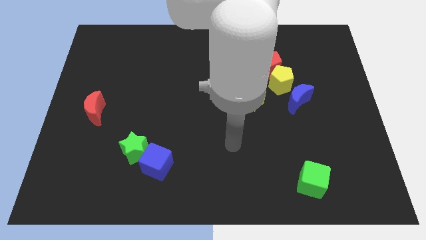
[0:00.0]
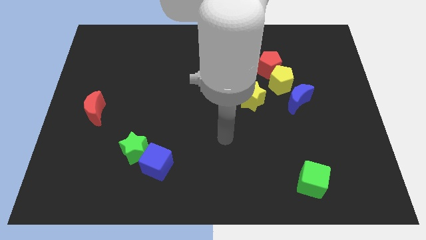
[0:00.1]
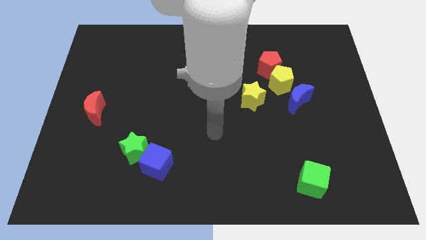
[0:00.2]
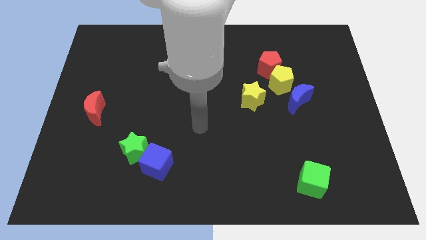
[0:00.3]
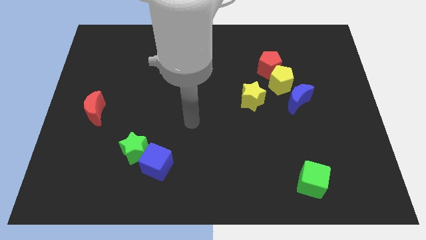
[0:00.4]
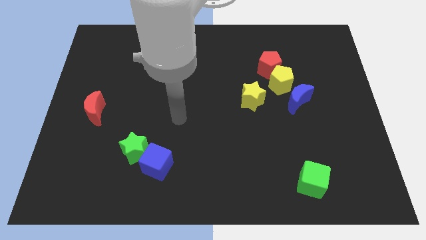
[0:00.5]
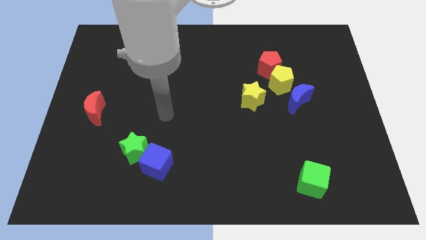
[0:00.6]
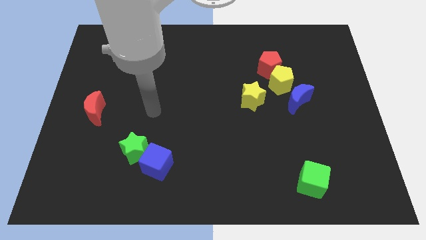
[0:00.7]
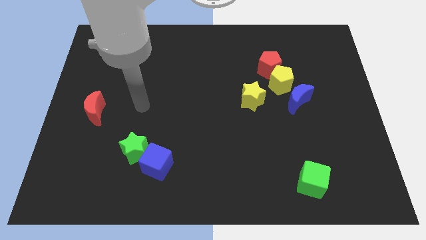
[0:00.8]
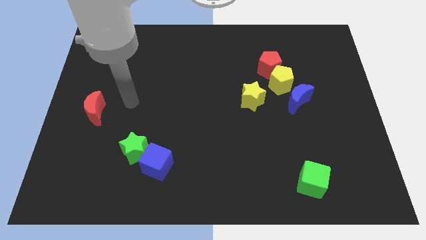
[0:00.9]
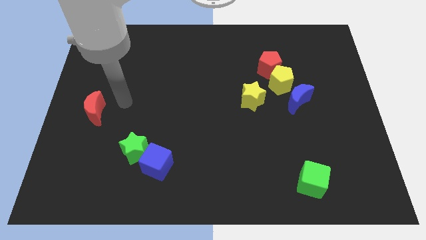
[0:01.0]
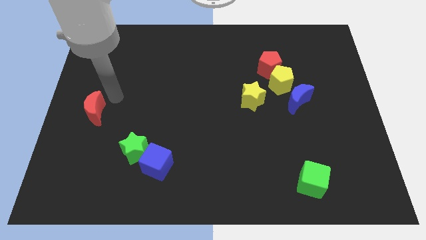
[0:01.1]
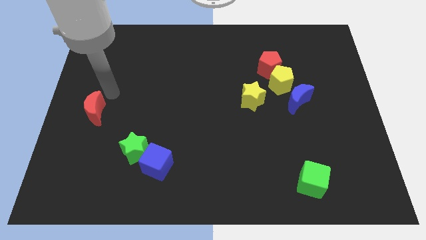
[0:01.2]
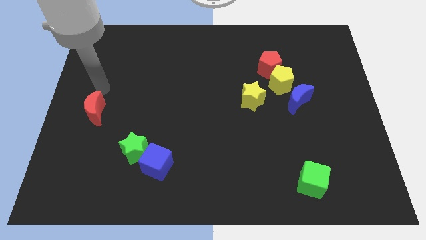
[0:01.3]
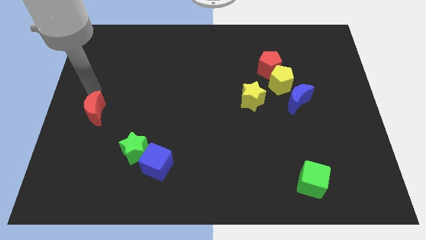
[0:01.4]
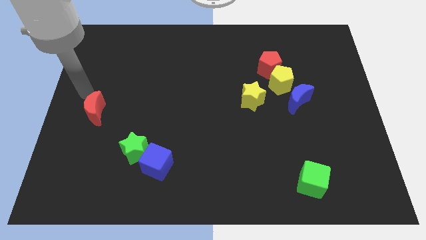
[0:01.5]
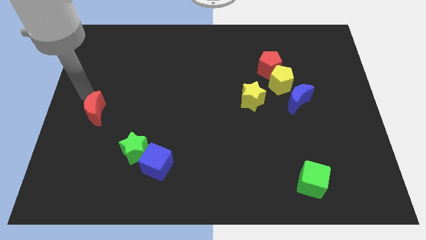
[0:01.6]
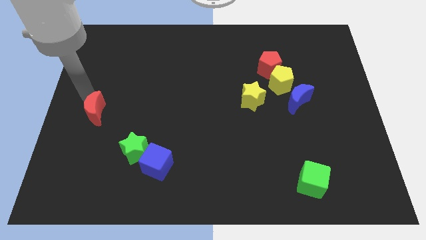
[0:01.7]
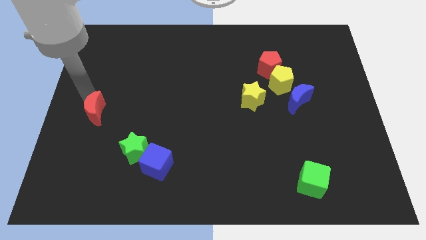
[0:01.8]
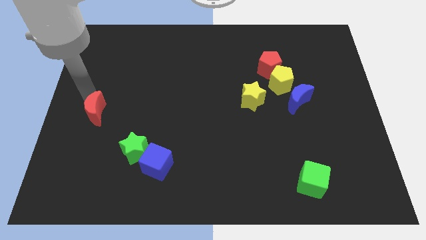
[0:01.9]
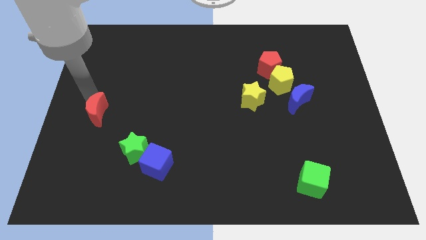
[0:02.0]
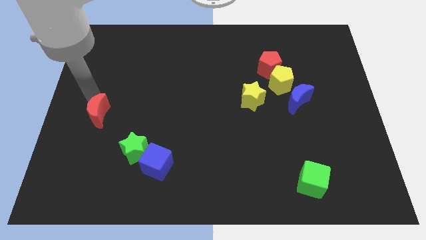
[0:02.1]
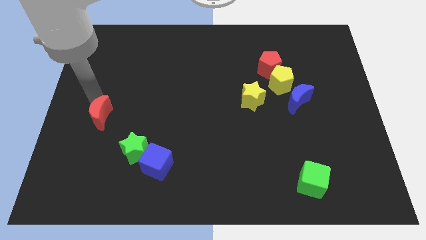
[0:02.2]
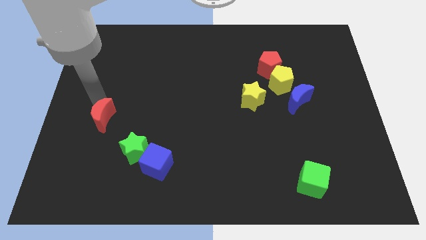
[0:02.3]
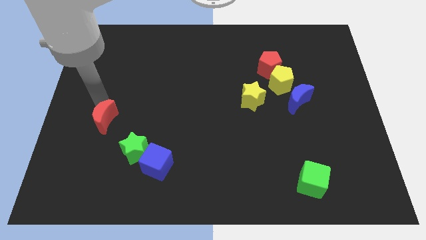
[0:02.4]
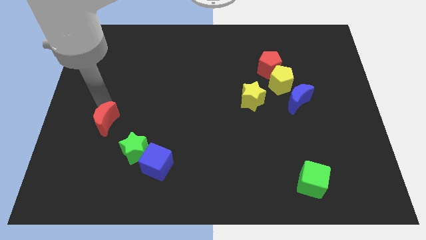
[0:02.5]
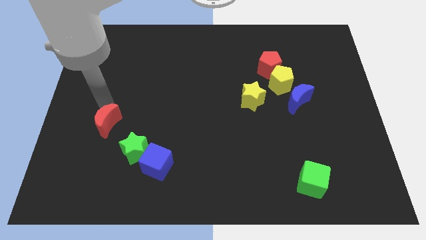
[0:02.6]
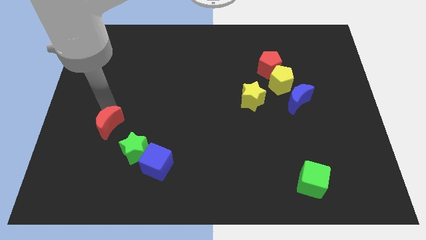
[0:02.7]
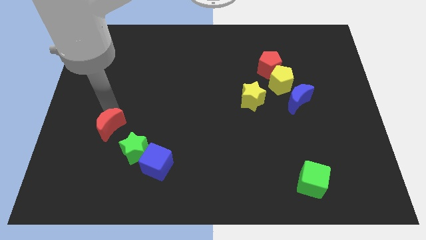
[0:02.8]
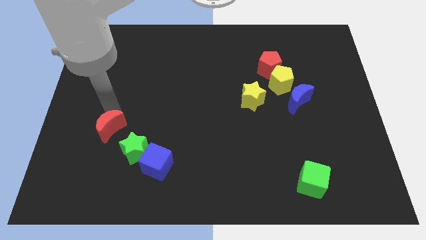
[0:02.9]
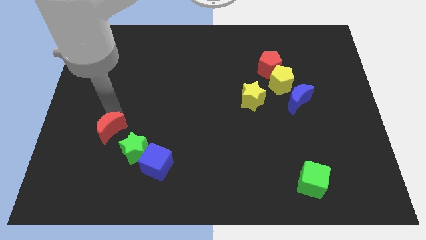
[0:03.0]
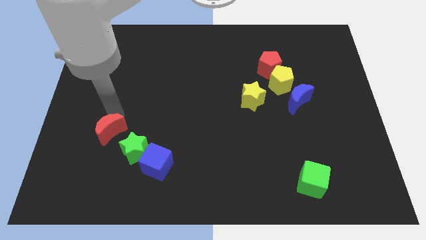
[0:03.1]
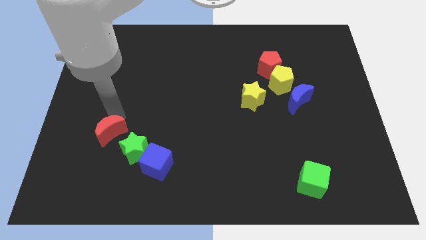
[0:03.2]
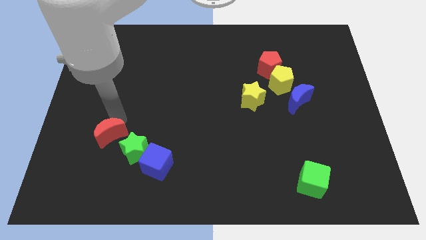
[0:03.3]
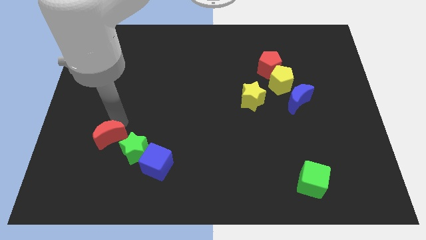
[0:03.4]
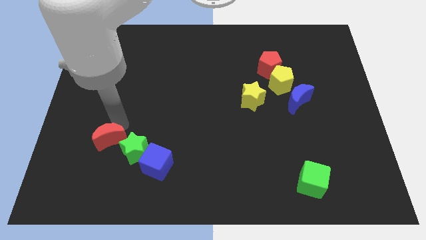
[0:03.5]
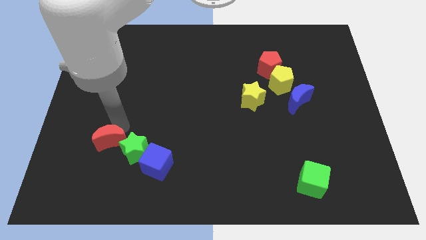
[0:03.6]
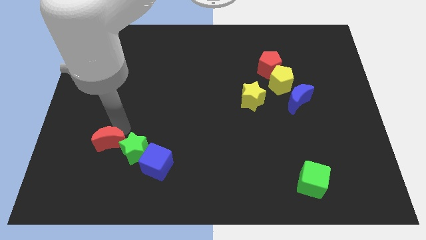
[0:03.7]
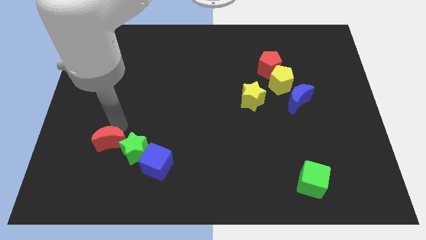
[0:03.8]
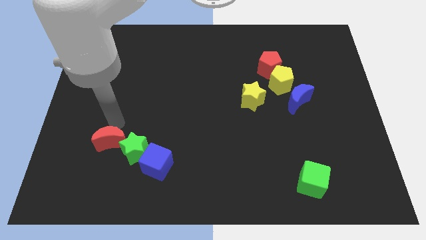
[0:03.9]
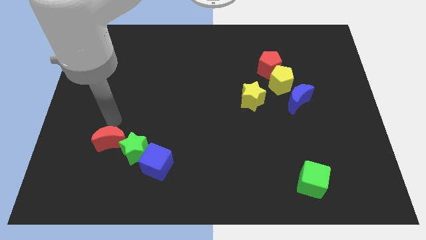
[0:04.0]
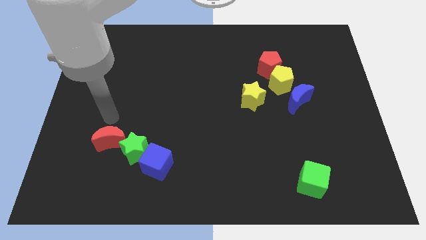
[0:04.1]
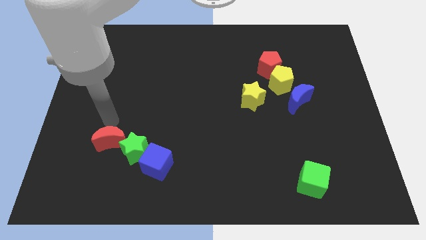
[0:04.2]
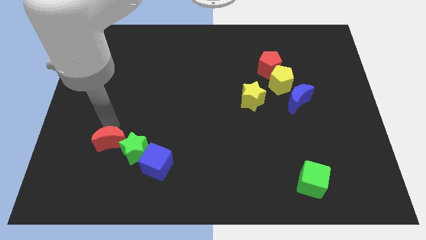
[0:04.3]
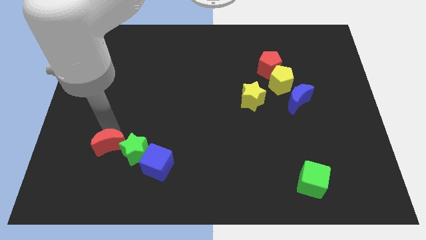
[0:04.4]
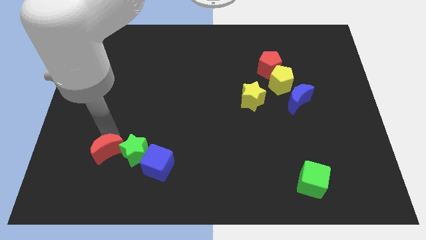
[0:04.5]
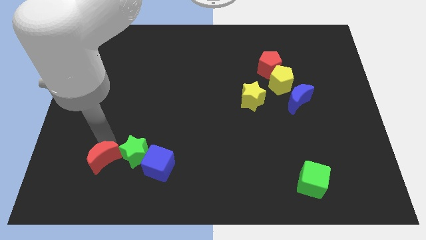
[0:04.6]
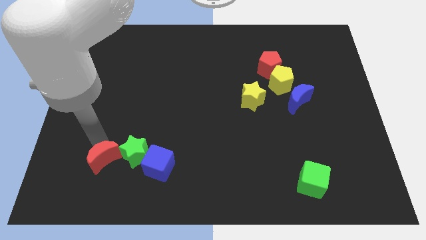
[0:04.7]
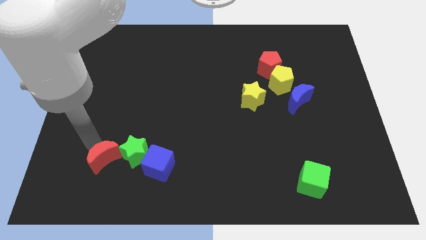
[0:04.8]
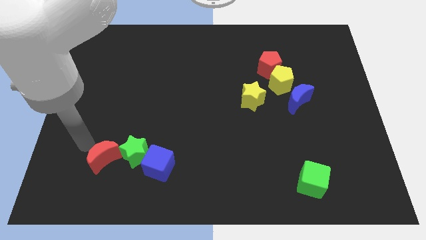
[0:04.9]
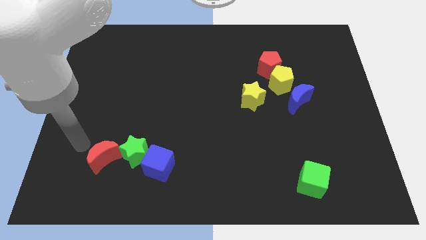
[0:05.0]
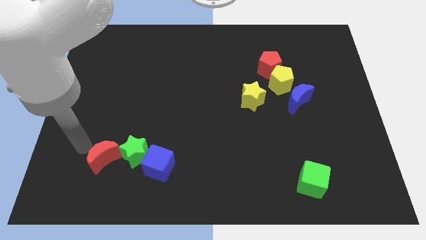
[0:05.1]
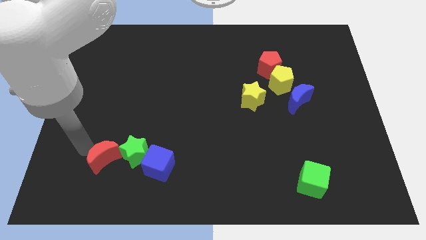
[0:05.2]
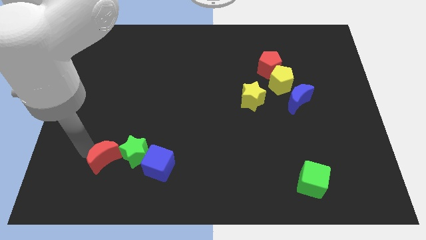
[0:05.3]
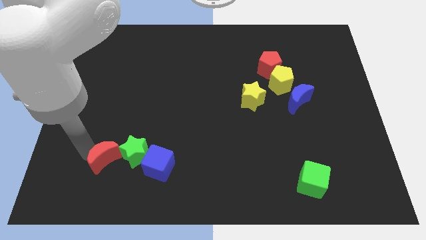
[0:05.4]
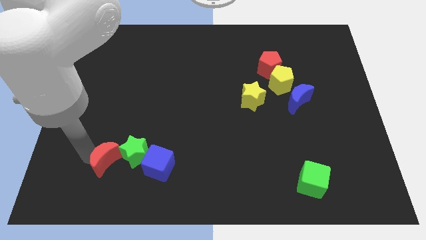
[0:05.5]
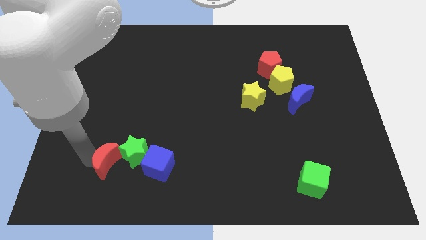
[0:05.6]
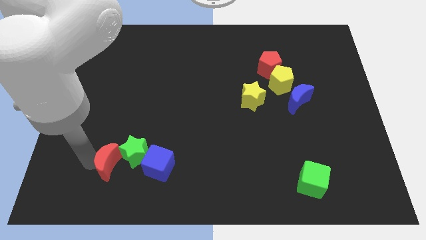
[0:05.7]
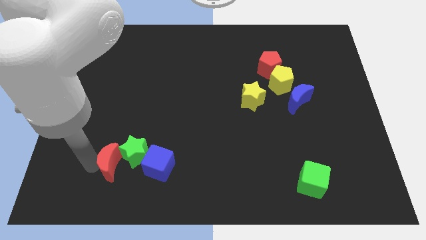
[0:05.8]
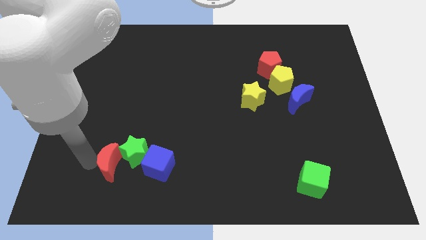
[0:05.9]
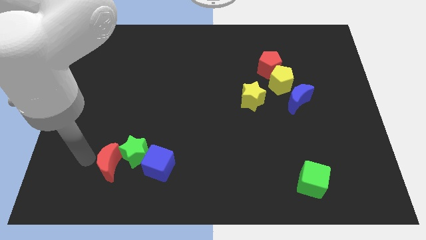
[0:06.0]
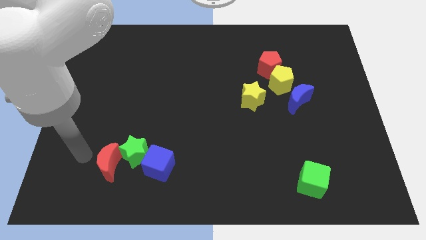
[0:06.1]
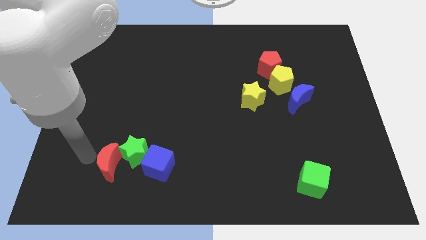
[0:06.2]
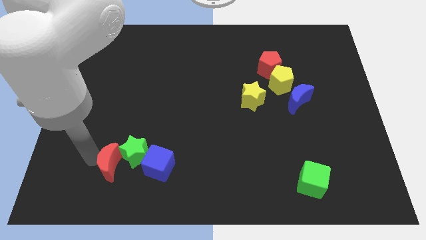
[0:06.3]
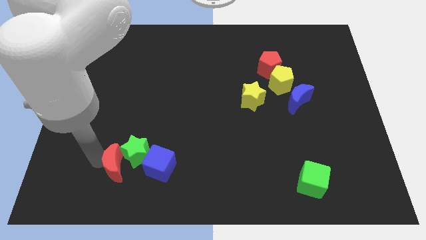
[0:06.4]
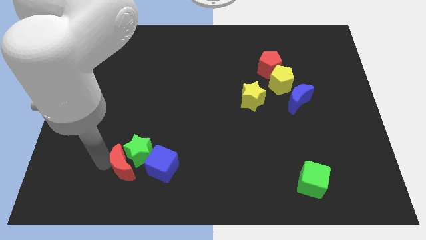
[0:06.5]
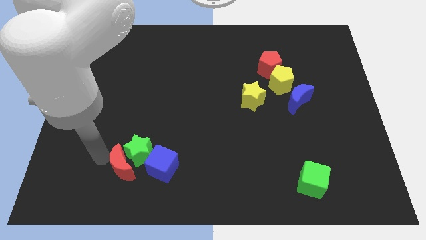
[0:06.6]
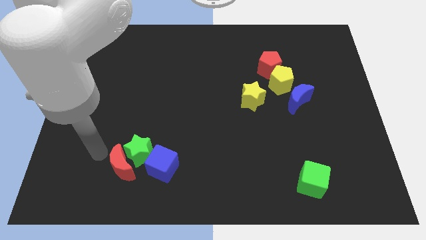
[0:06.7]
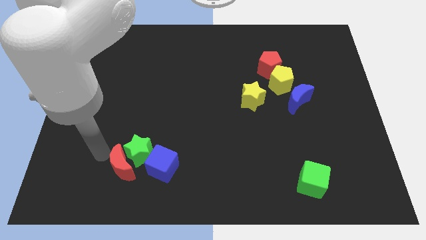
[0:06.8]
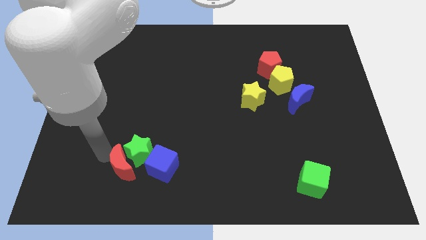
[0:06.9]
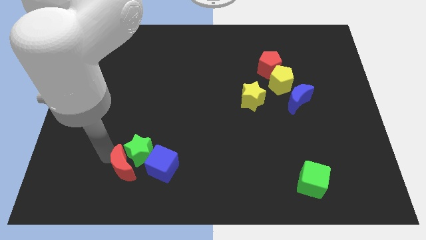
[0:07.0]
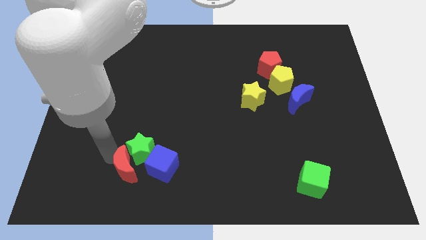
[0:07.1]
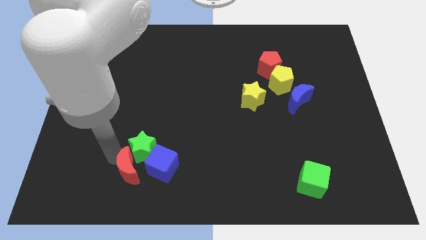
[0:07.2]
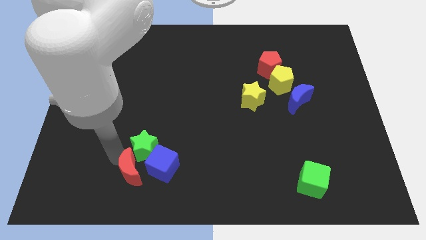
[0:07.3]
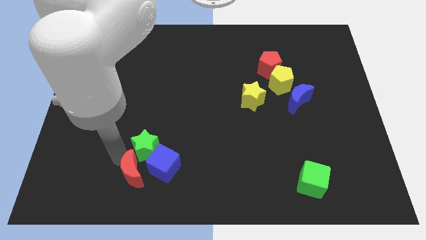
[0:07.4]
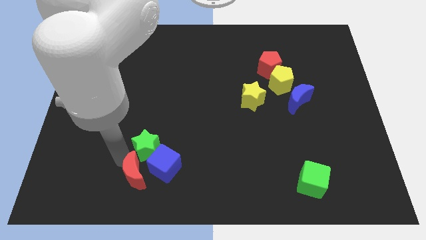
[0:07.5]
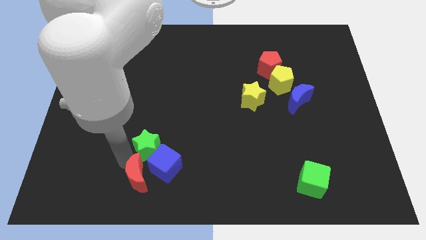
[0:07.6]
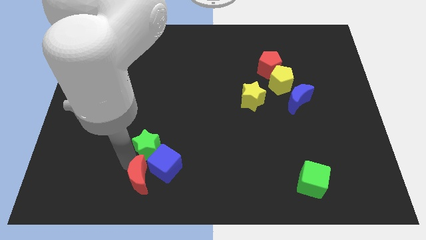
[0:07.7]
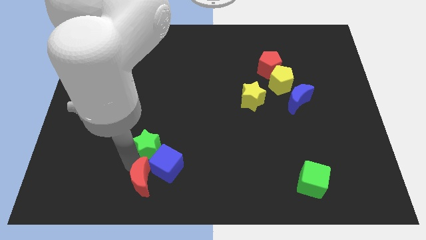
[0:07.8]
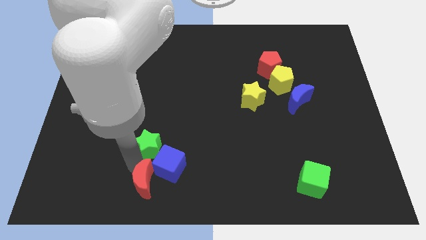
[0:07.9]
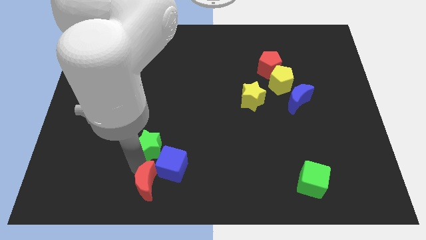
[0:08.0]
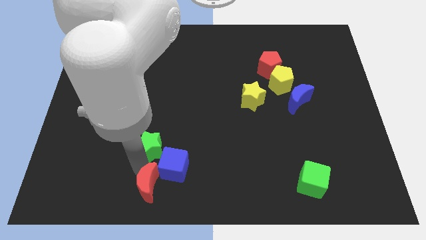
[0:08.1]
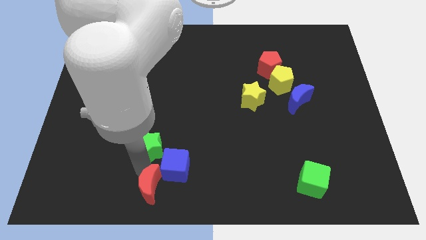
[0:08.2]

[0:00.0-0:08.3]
move the red moon to the bottom side
